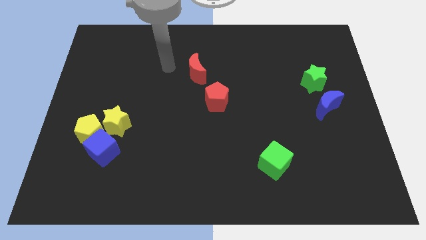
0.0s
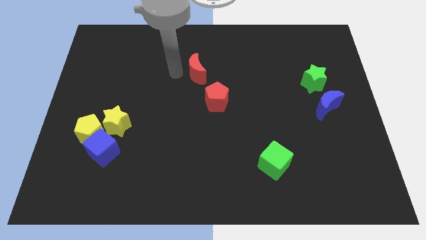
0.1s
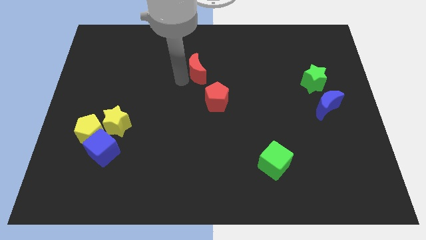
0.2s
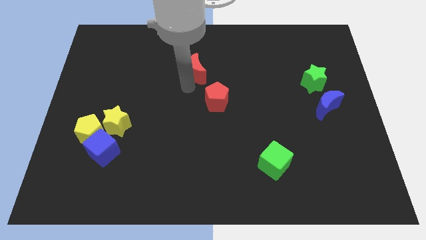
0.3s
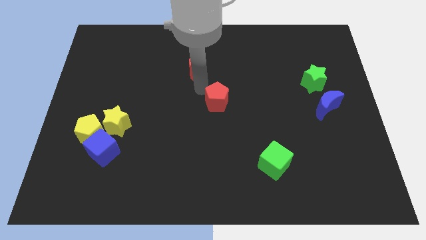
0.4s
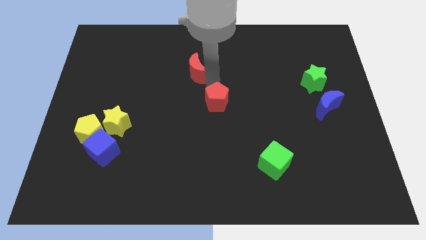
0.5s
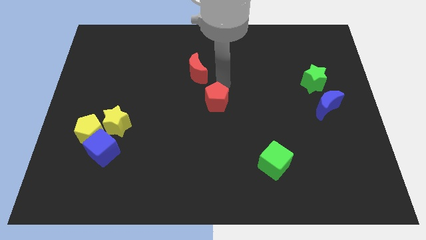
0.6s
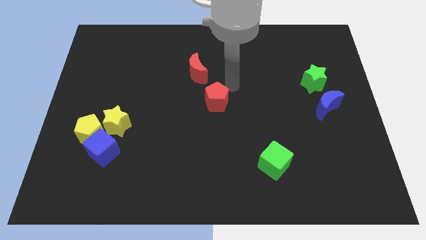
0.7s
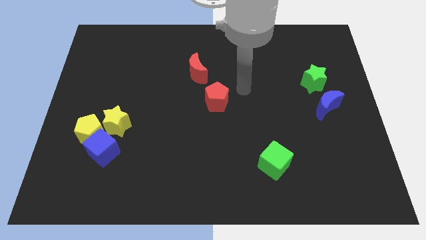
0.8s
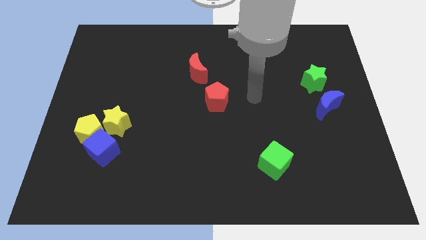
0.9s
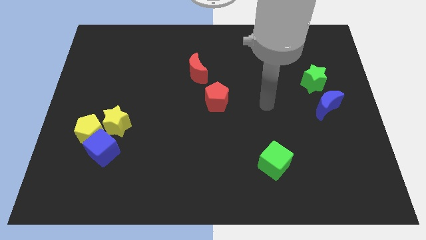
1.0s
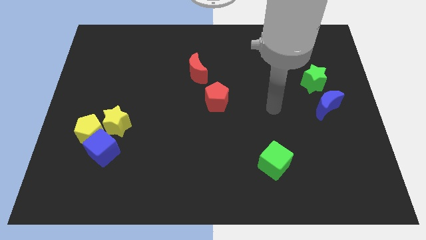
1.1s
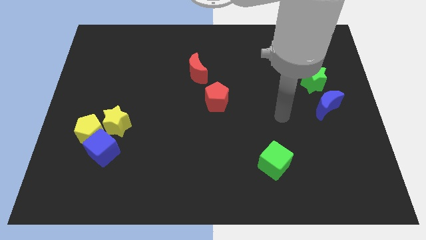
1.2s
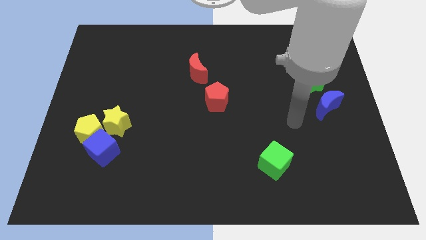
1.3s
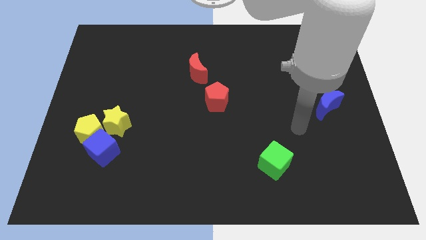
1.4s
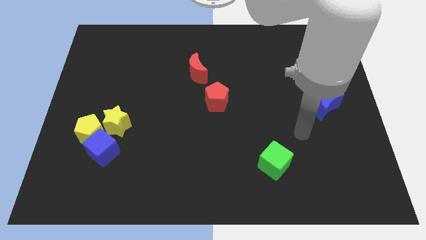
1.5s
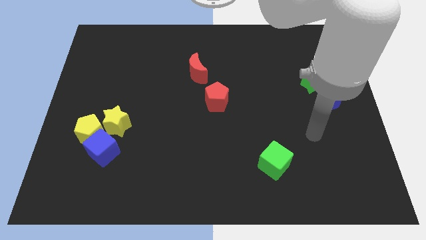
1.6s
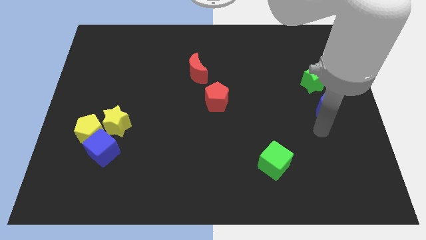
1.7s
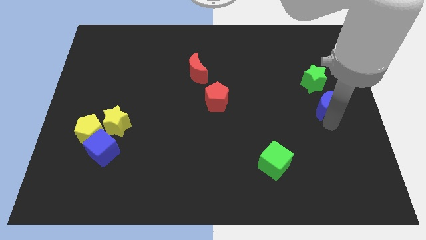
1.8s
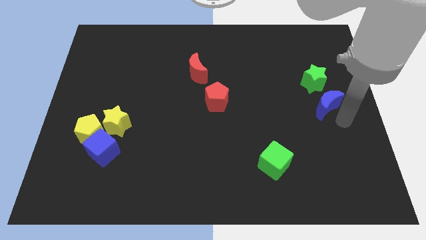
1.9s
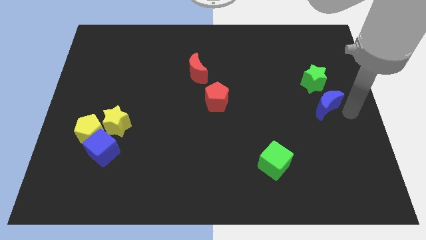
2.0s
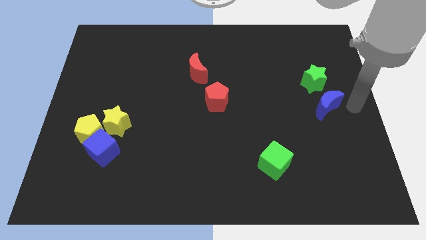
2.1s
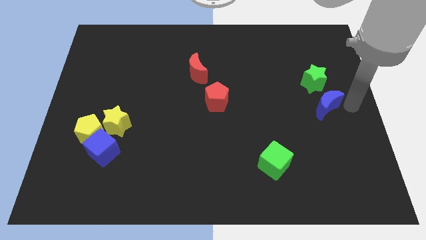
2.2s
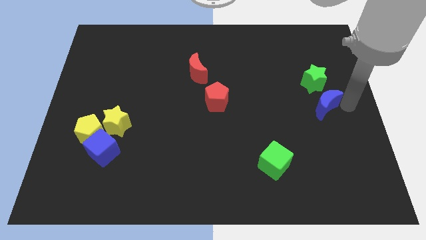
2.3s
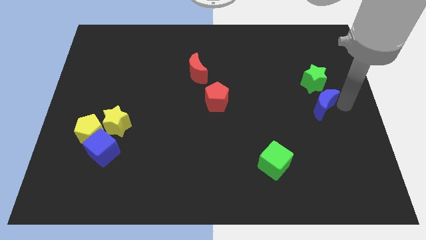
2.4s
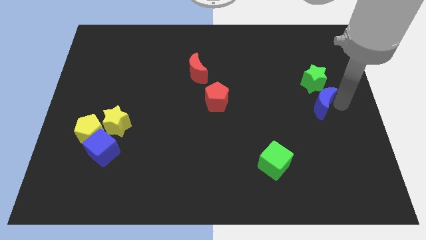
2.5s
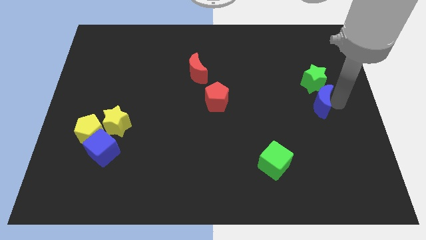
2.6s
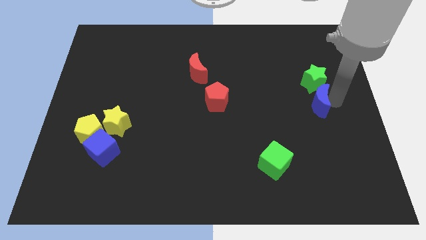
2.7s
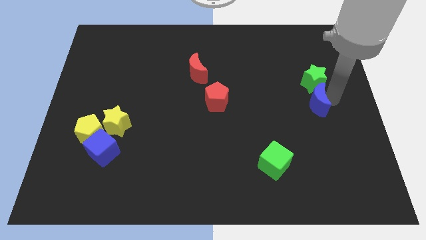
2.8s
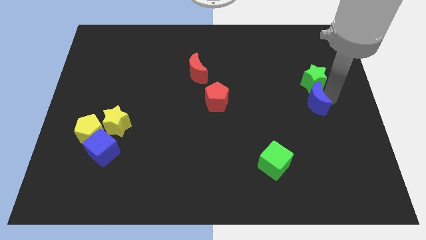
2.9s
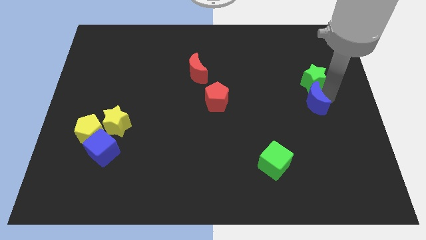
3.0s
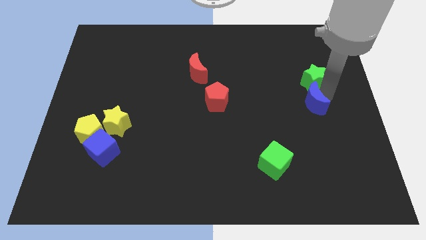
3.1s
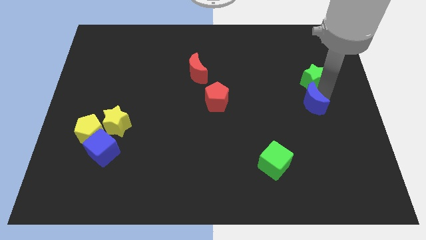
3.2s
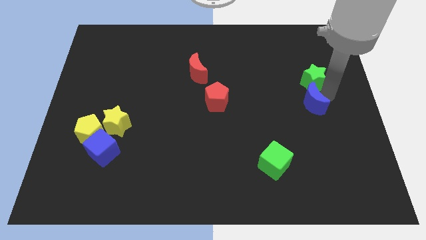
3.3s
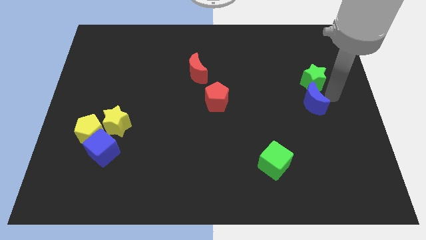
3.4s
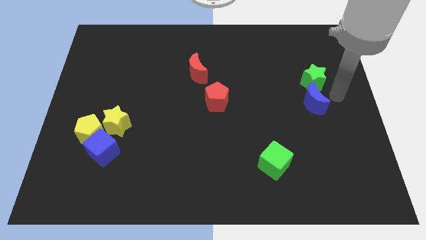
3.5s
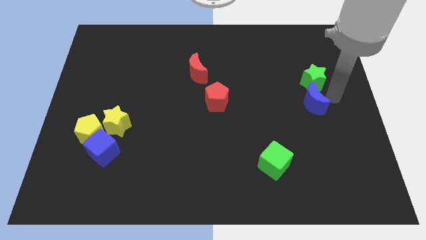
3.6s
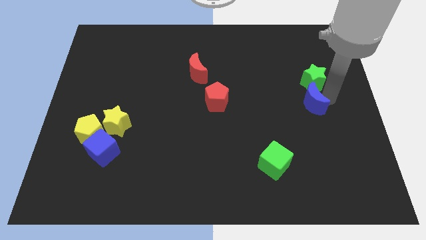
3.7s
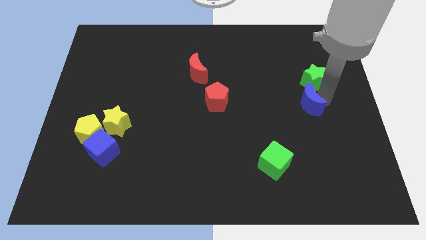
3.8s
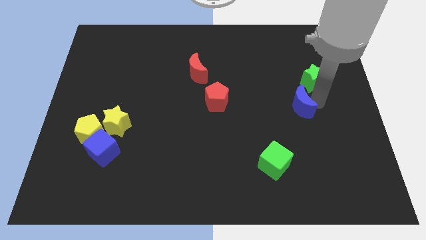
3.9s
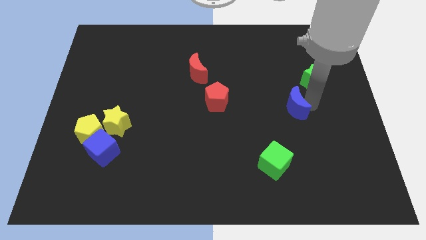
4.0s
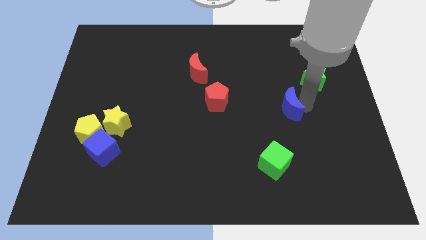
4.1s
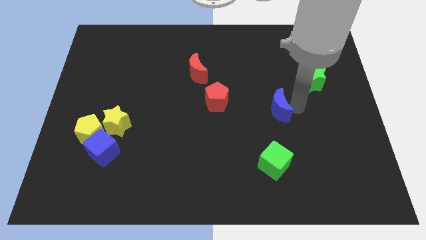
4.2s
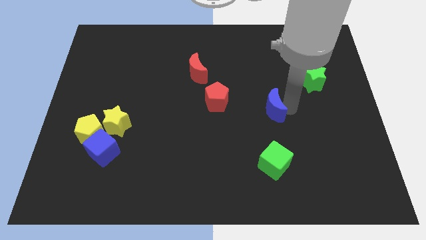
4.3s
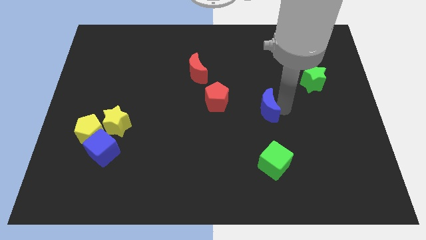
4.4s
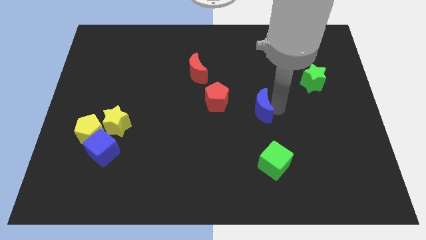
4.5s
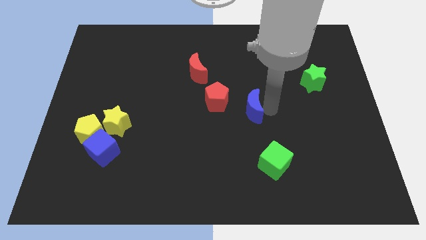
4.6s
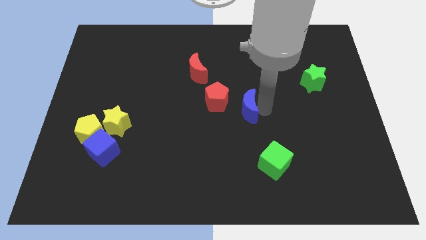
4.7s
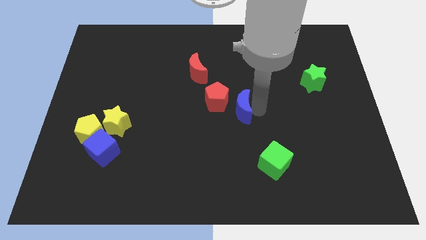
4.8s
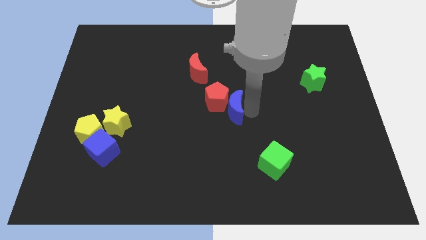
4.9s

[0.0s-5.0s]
move the blue moon close to the red pentagon

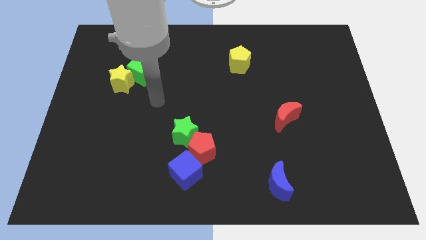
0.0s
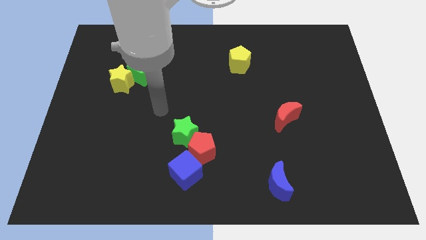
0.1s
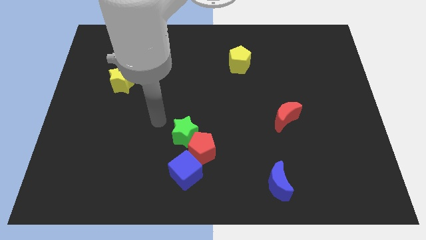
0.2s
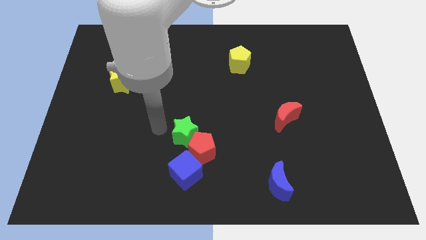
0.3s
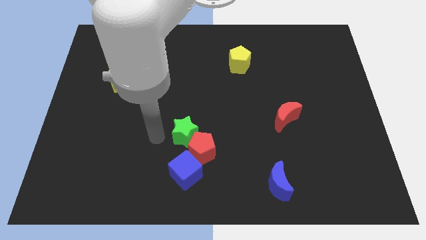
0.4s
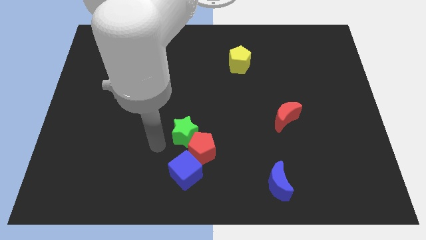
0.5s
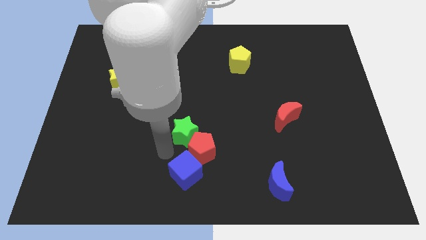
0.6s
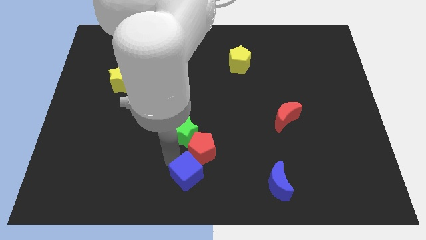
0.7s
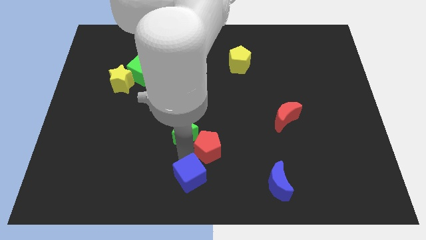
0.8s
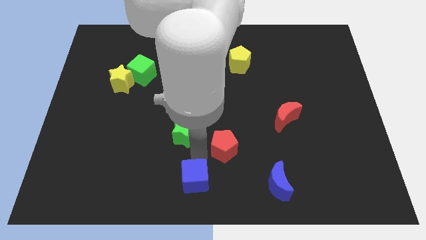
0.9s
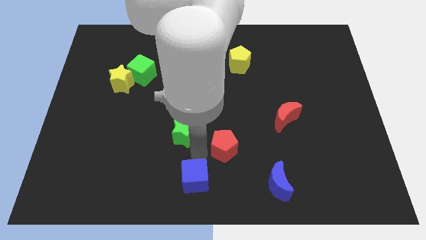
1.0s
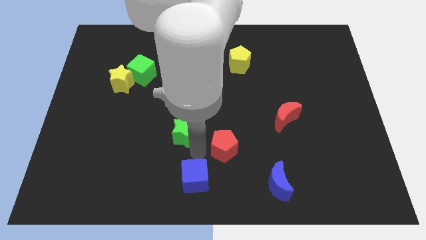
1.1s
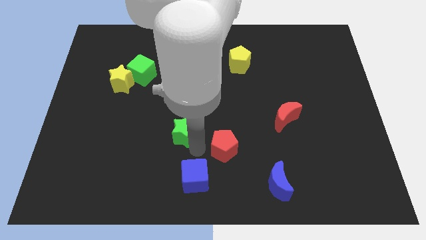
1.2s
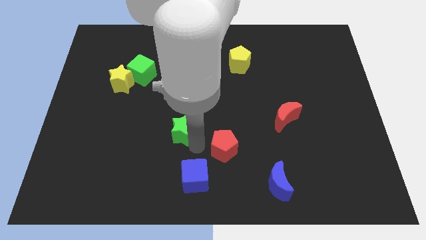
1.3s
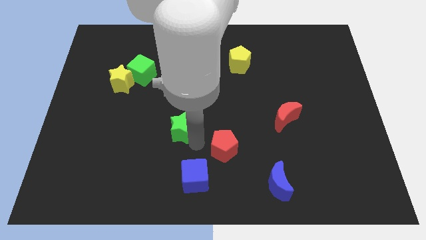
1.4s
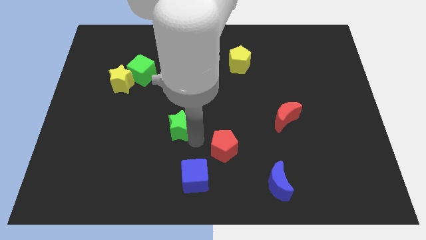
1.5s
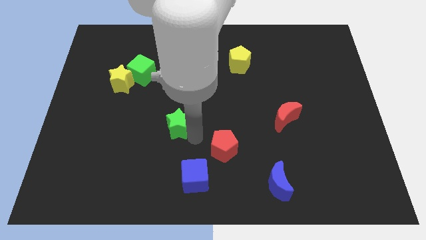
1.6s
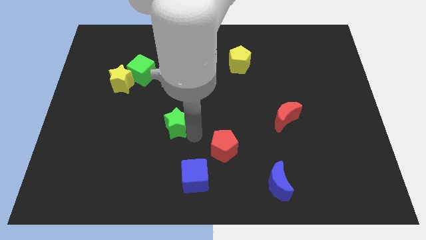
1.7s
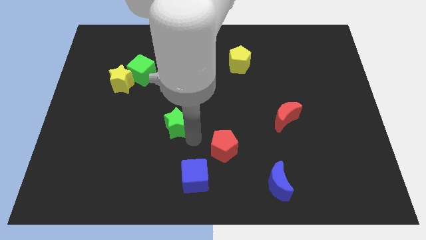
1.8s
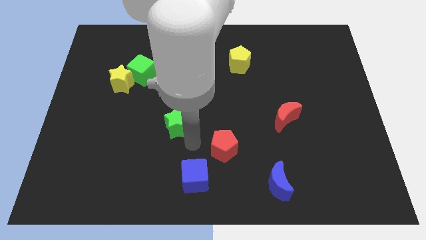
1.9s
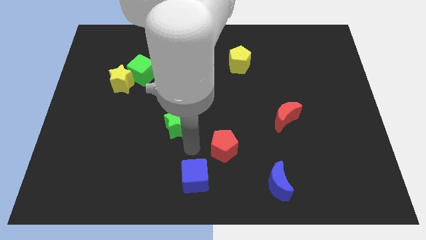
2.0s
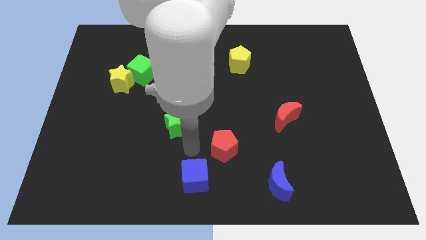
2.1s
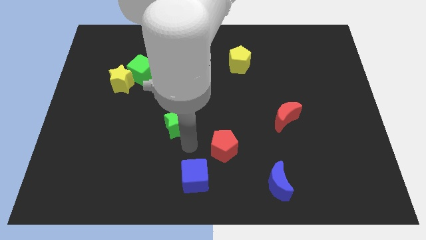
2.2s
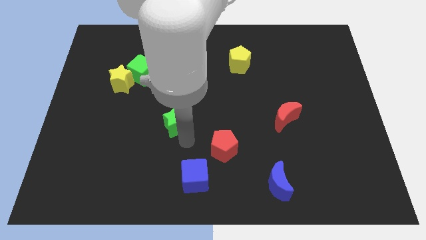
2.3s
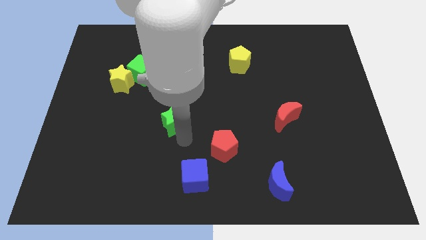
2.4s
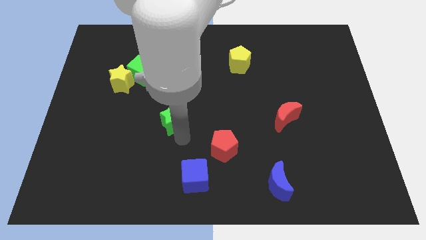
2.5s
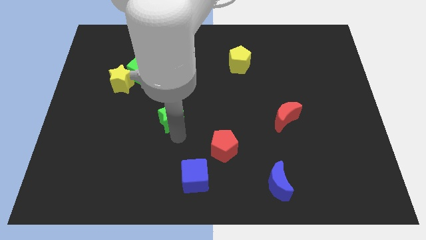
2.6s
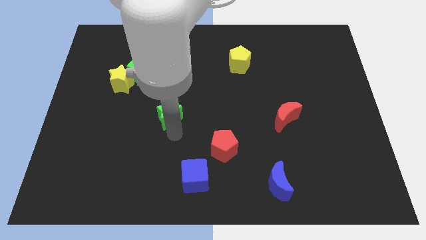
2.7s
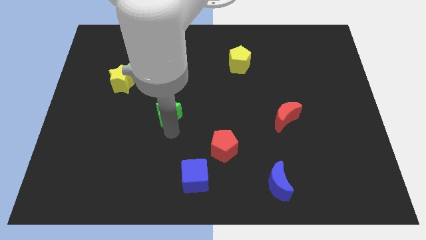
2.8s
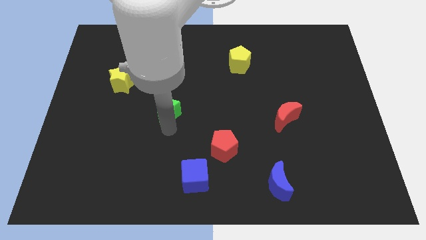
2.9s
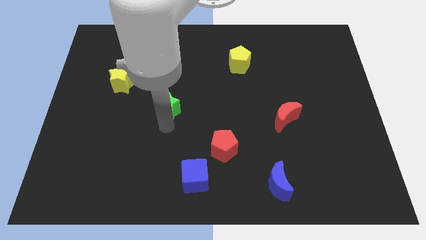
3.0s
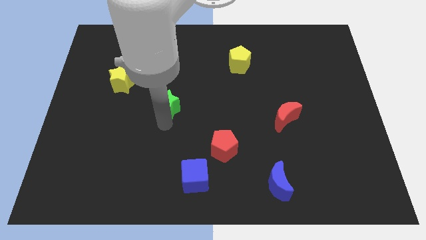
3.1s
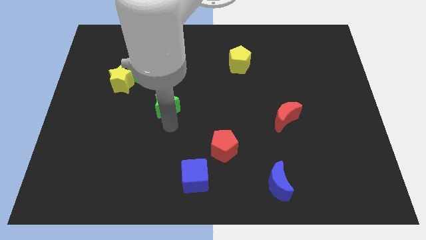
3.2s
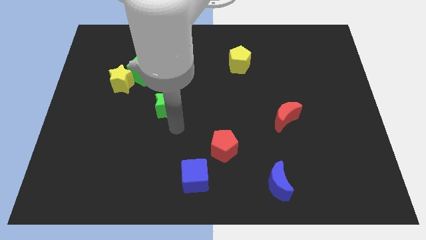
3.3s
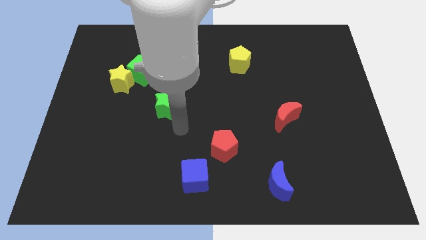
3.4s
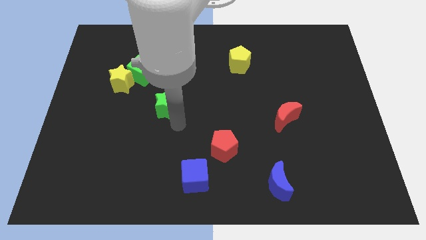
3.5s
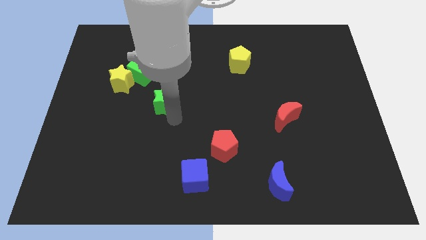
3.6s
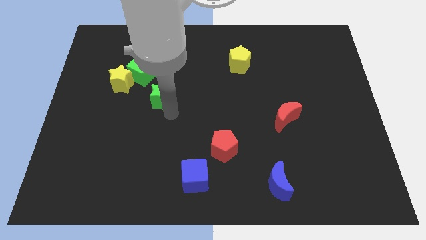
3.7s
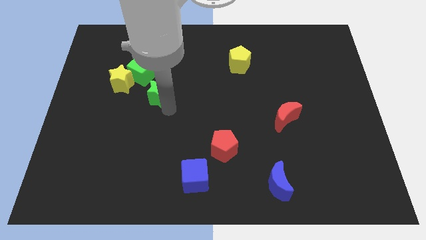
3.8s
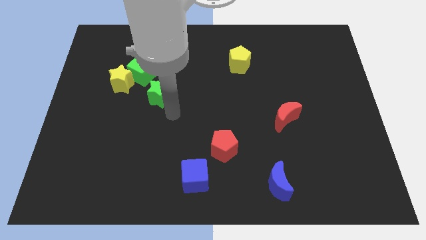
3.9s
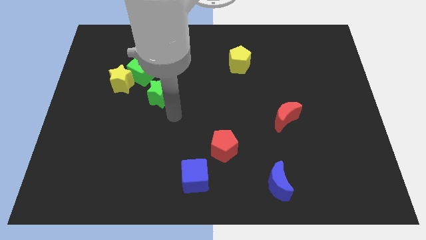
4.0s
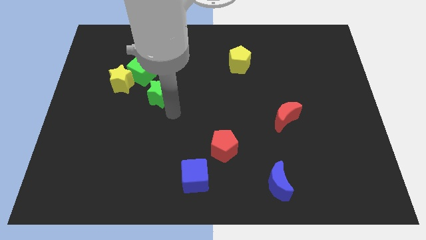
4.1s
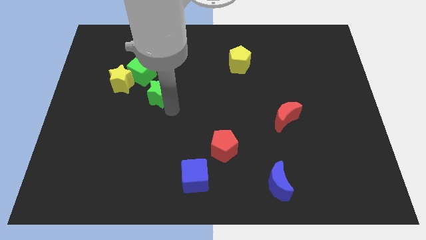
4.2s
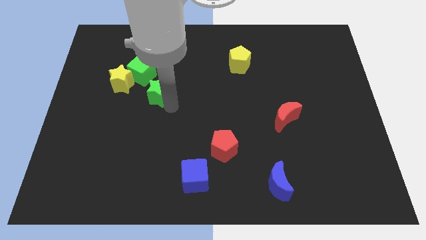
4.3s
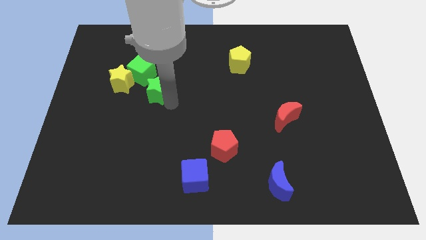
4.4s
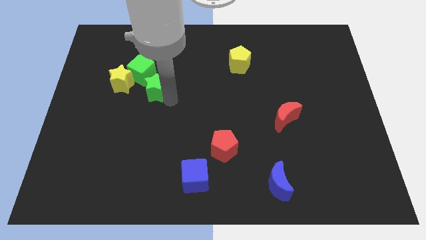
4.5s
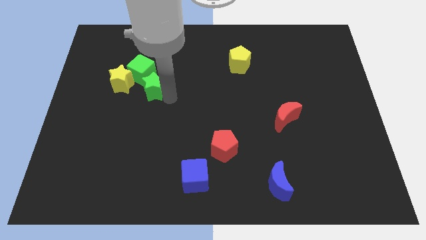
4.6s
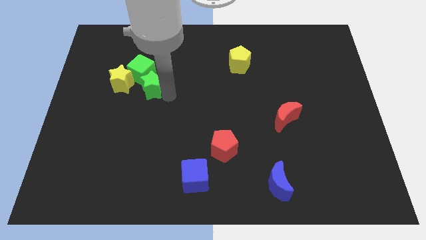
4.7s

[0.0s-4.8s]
push the green star towards the green cube
